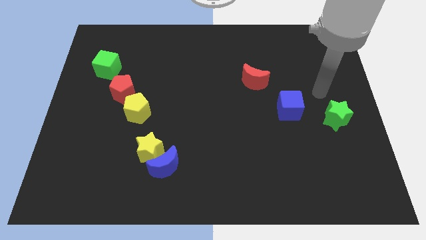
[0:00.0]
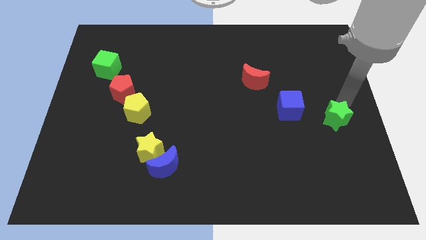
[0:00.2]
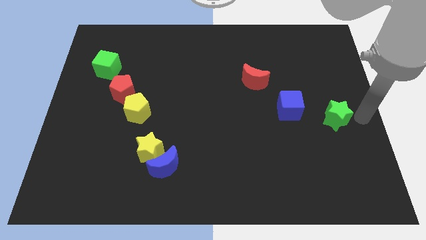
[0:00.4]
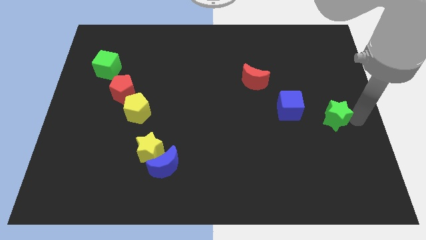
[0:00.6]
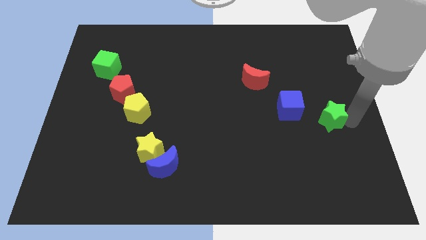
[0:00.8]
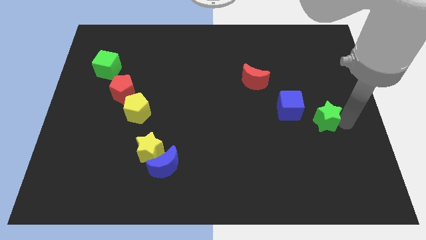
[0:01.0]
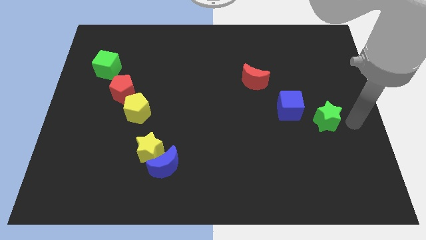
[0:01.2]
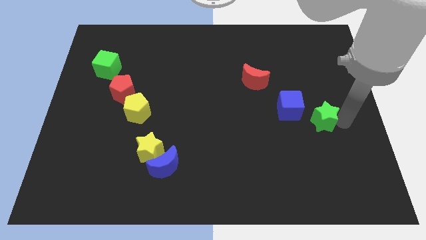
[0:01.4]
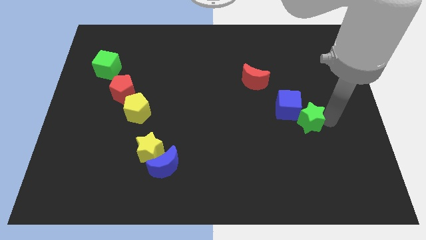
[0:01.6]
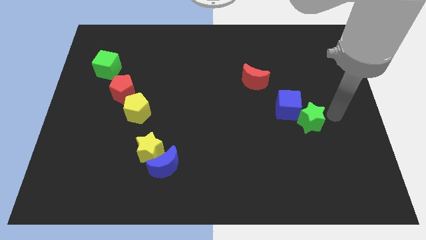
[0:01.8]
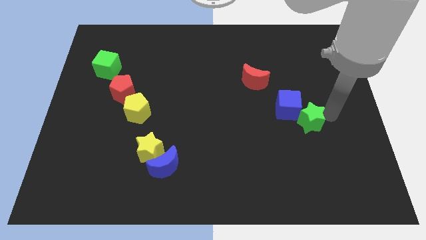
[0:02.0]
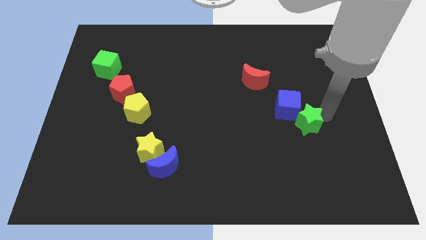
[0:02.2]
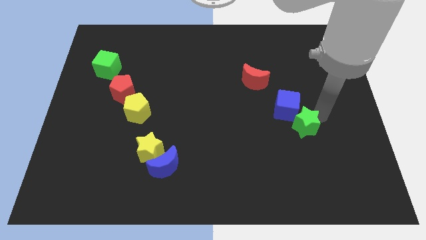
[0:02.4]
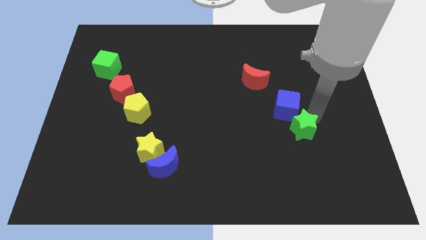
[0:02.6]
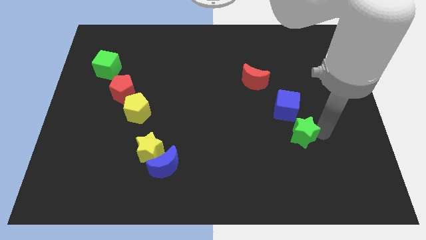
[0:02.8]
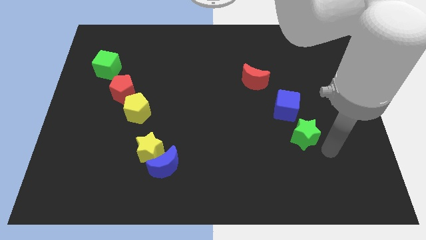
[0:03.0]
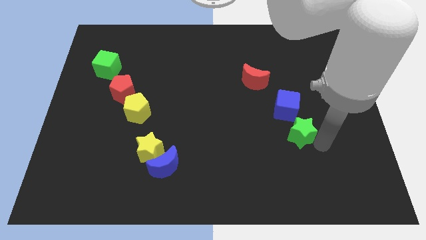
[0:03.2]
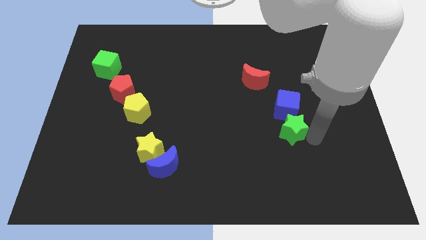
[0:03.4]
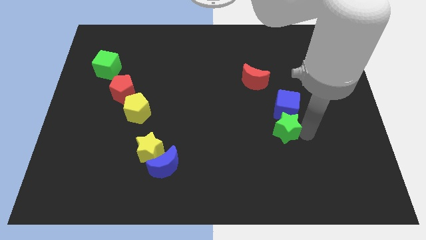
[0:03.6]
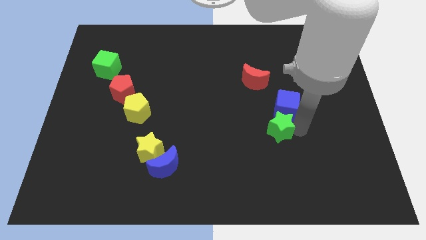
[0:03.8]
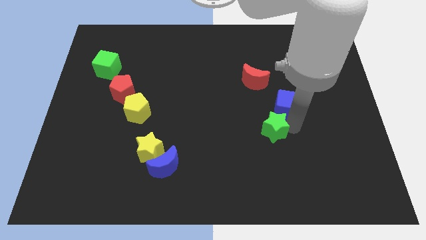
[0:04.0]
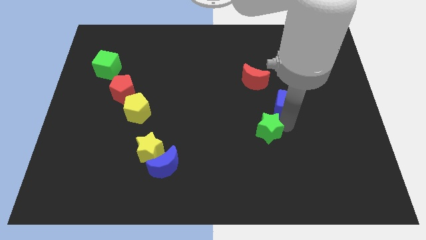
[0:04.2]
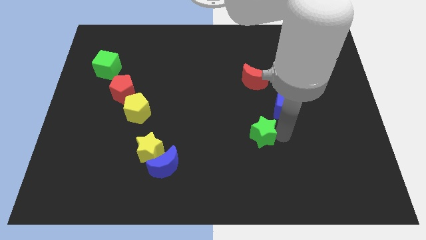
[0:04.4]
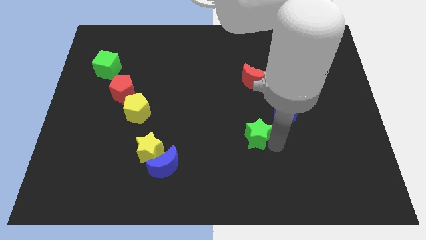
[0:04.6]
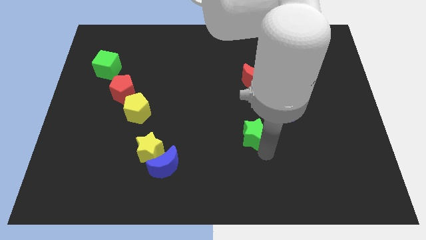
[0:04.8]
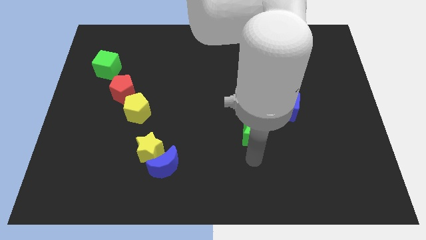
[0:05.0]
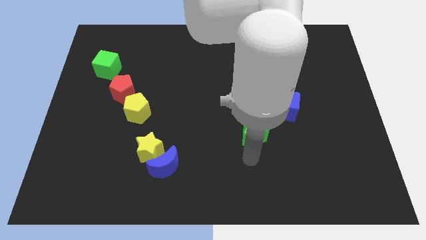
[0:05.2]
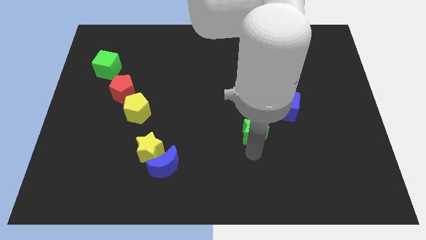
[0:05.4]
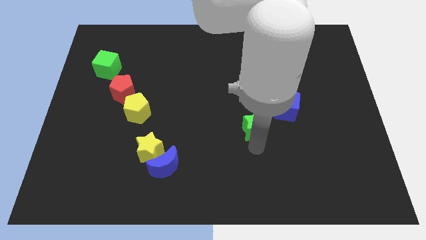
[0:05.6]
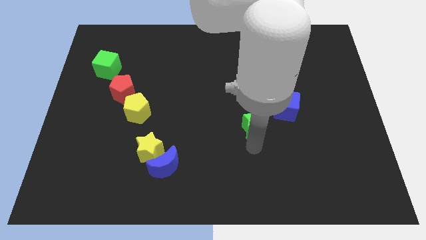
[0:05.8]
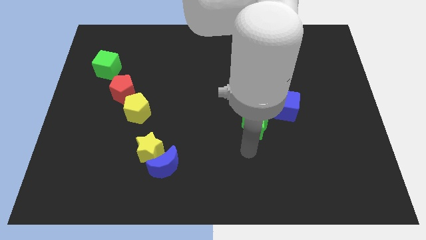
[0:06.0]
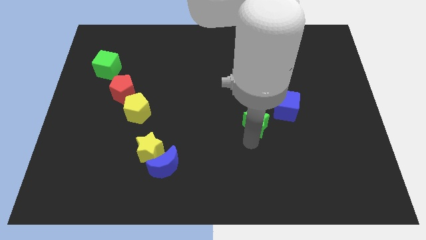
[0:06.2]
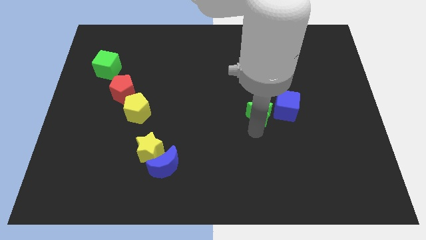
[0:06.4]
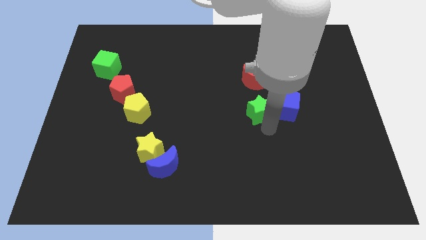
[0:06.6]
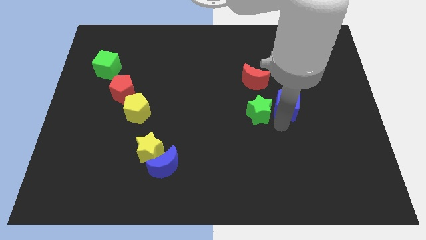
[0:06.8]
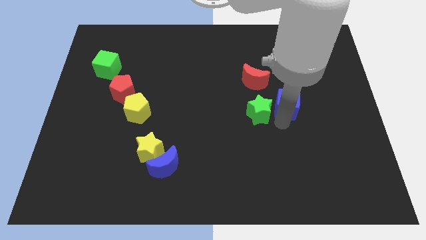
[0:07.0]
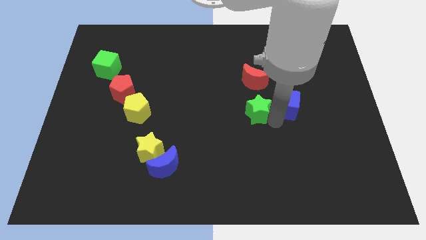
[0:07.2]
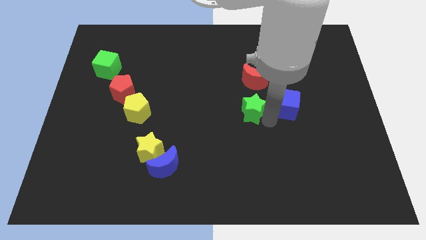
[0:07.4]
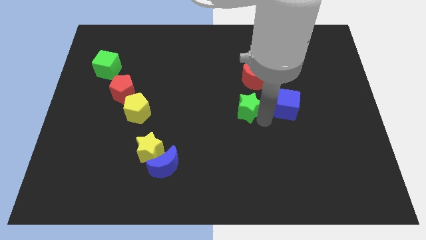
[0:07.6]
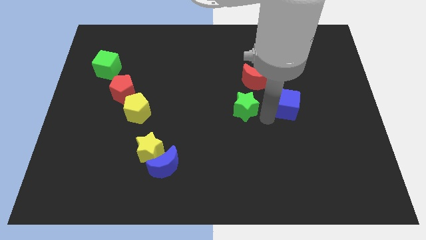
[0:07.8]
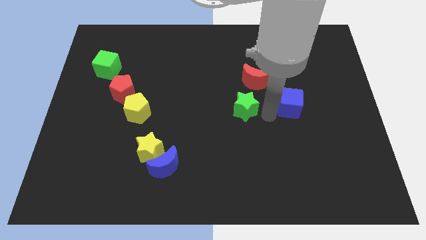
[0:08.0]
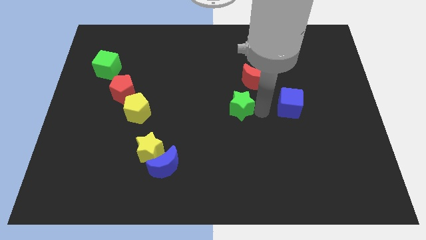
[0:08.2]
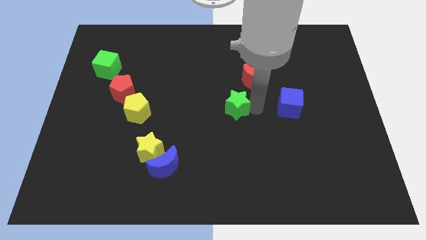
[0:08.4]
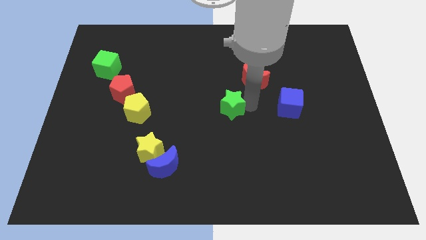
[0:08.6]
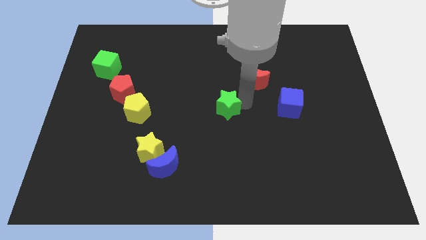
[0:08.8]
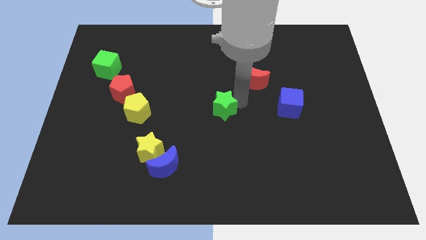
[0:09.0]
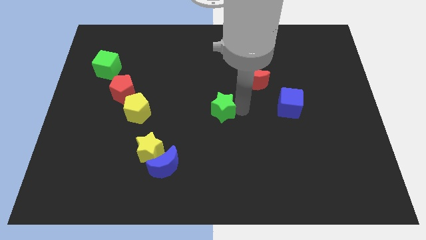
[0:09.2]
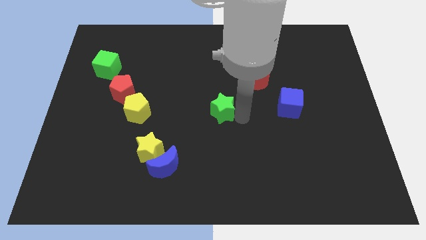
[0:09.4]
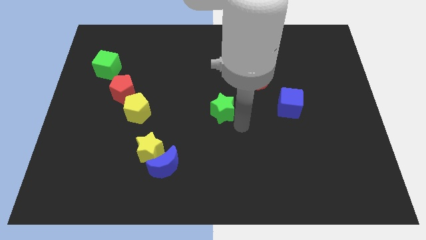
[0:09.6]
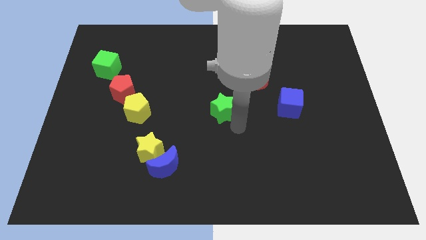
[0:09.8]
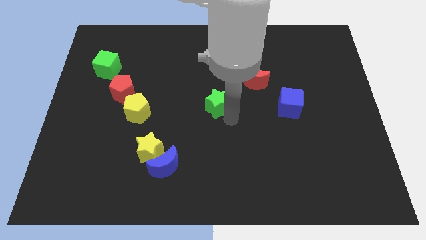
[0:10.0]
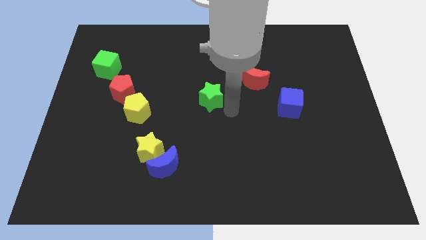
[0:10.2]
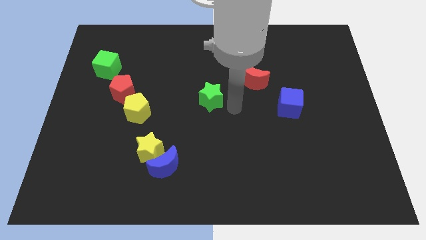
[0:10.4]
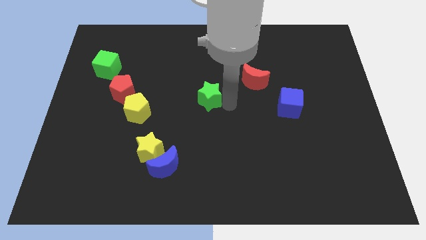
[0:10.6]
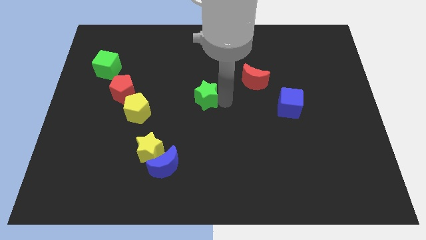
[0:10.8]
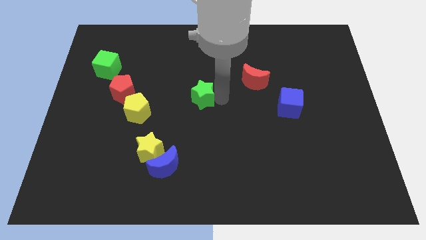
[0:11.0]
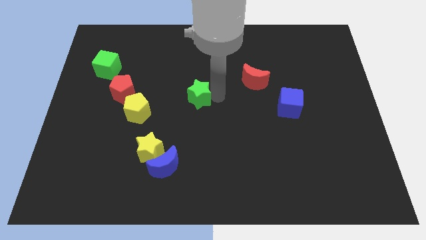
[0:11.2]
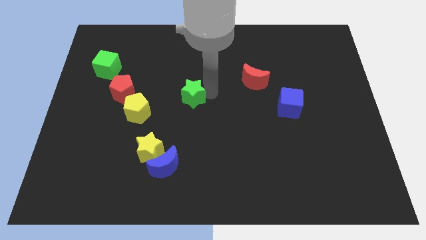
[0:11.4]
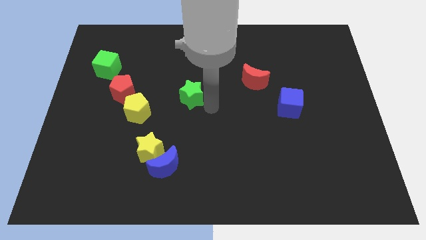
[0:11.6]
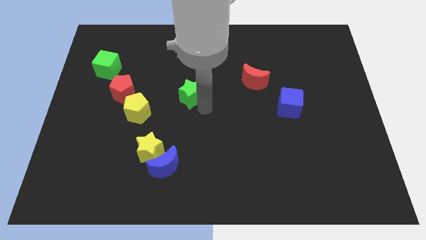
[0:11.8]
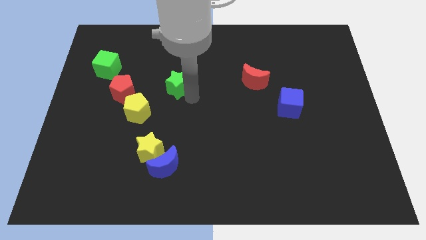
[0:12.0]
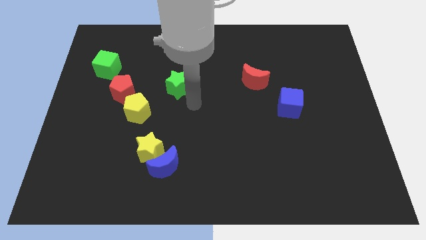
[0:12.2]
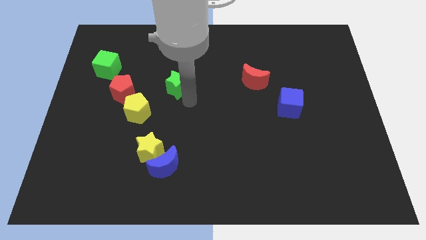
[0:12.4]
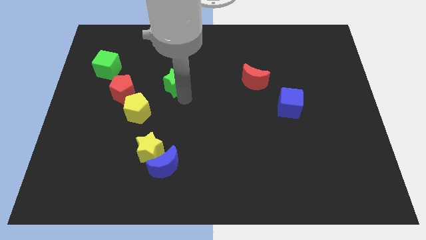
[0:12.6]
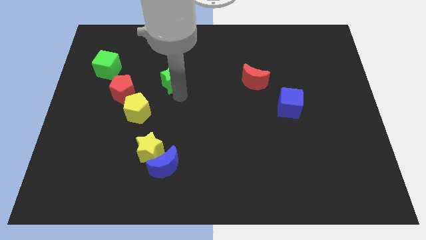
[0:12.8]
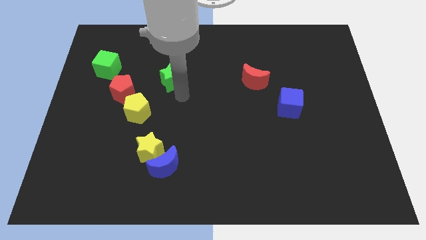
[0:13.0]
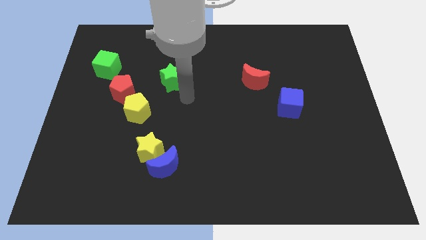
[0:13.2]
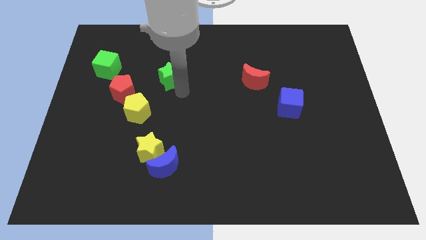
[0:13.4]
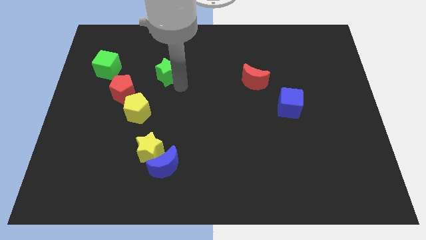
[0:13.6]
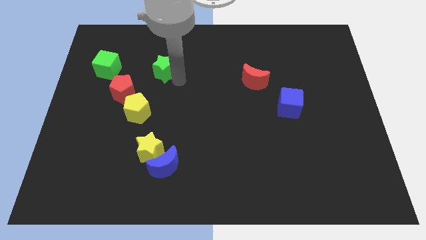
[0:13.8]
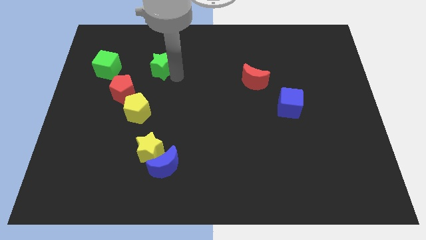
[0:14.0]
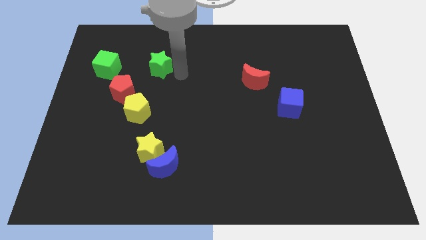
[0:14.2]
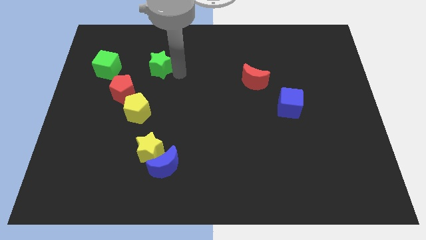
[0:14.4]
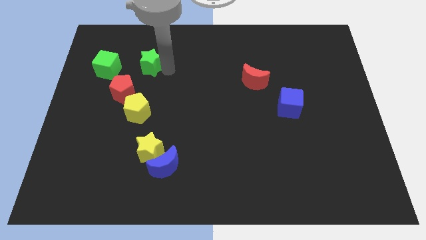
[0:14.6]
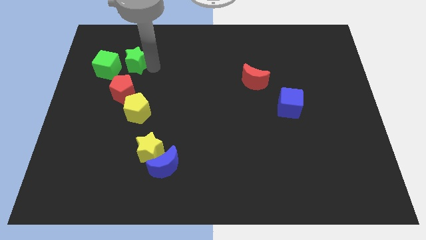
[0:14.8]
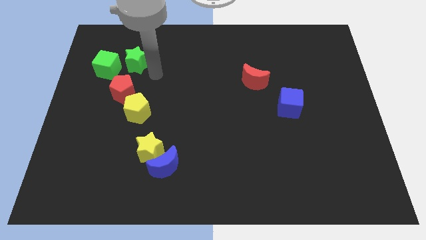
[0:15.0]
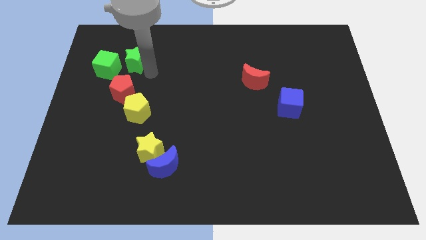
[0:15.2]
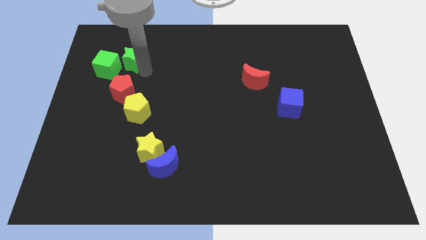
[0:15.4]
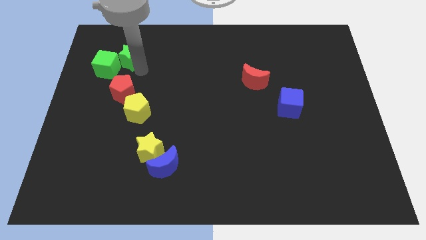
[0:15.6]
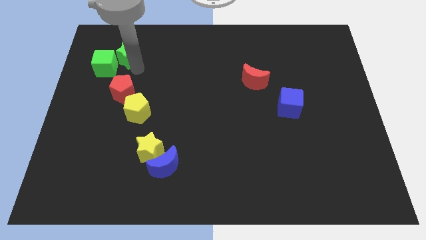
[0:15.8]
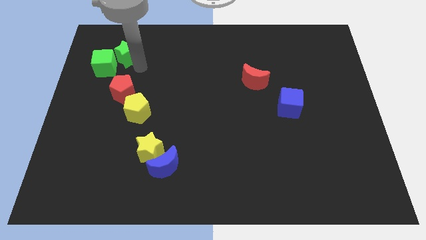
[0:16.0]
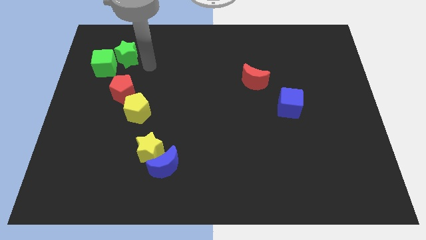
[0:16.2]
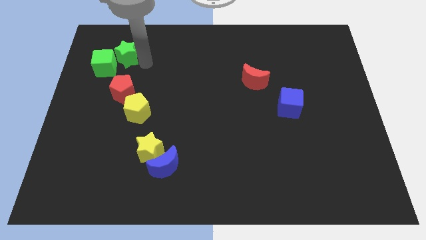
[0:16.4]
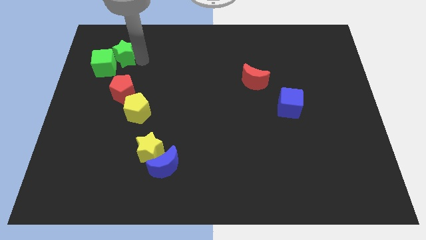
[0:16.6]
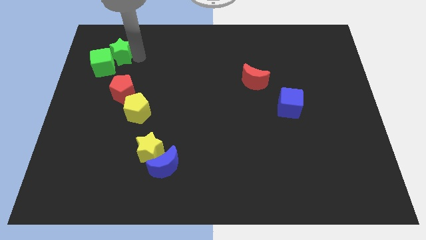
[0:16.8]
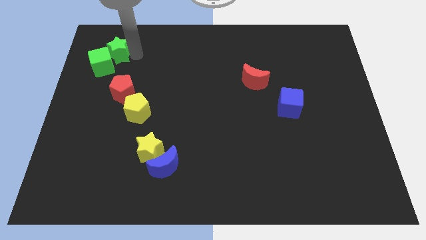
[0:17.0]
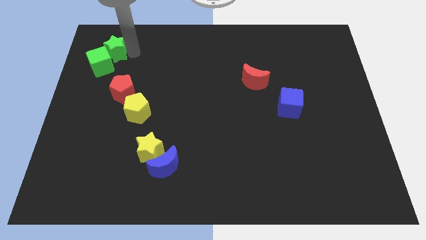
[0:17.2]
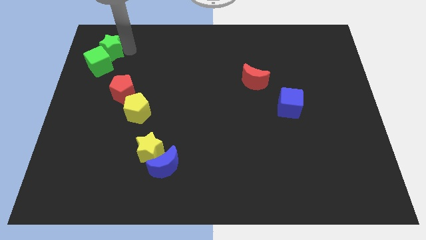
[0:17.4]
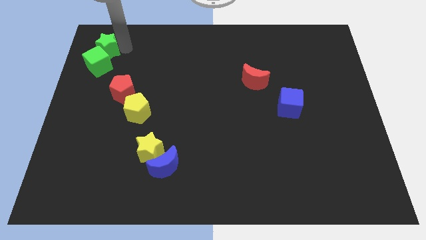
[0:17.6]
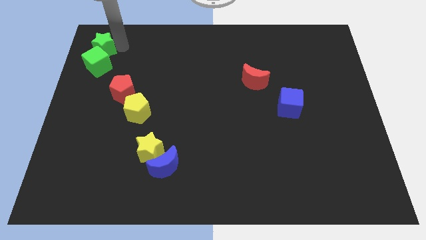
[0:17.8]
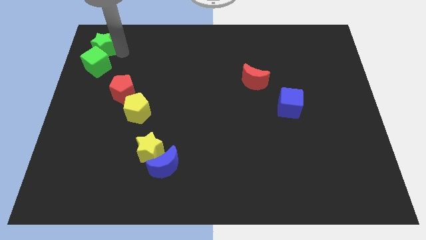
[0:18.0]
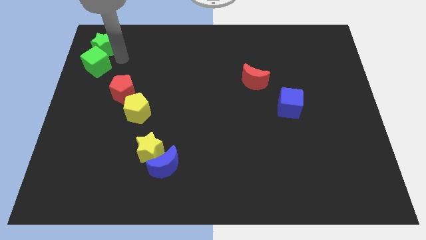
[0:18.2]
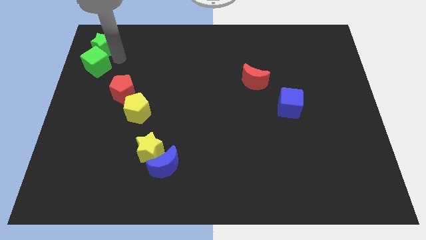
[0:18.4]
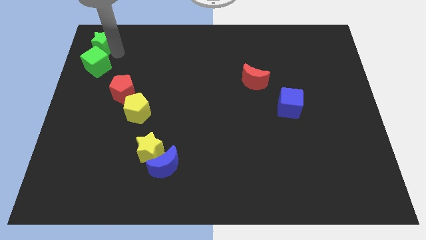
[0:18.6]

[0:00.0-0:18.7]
move the green star to the top left corner
